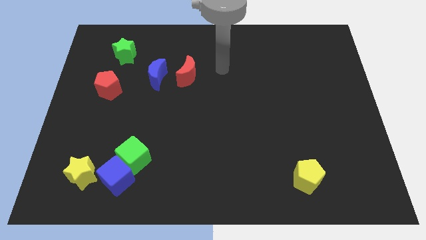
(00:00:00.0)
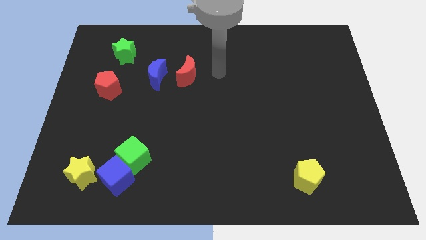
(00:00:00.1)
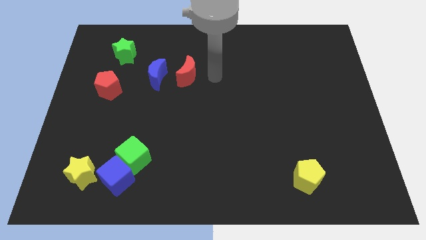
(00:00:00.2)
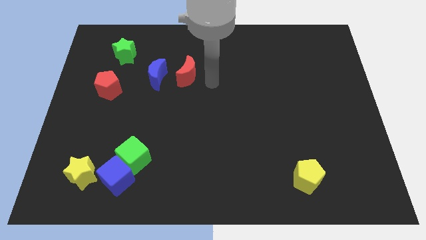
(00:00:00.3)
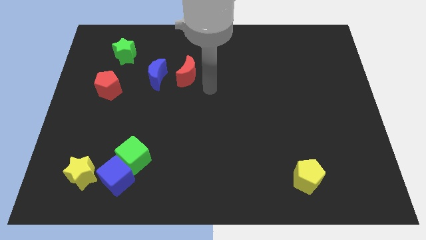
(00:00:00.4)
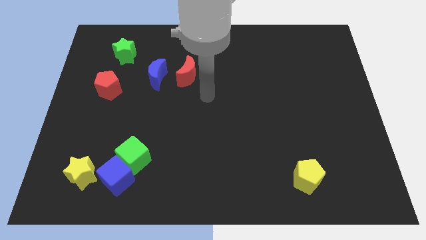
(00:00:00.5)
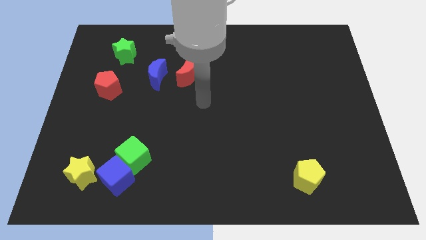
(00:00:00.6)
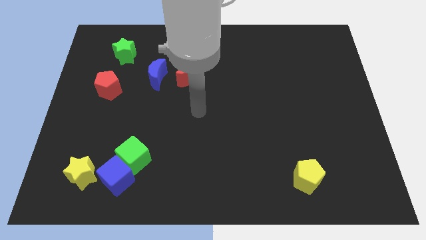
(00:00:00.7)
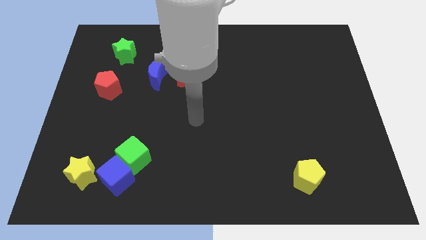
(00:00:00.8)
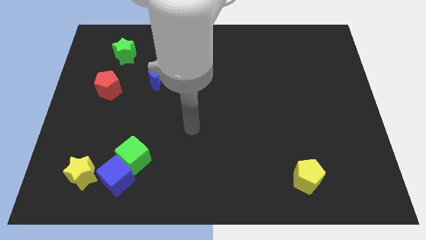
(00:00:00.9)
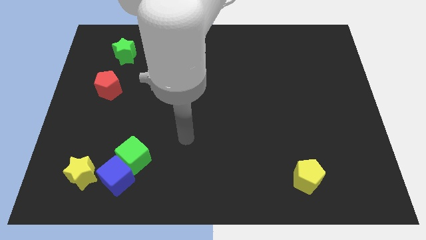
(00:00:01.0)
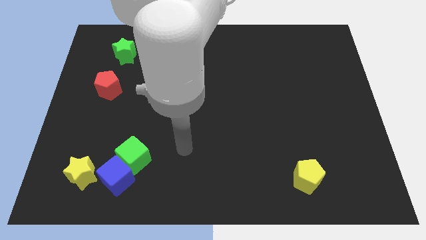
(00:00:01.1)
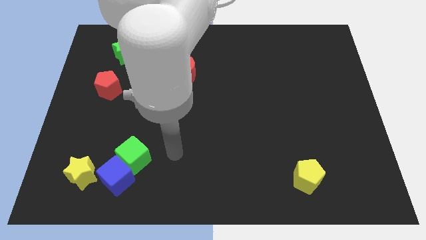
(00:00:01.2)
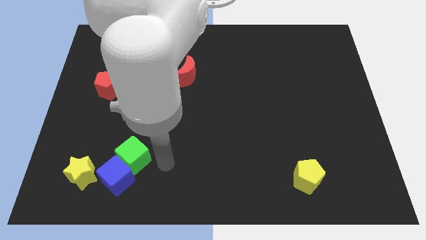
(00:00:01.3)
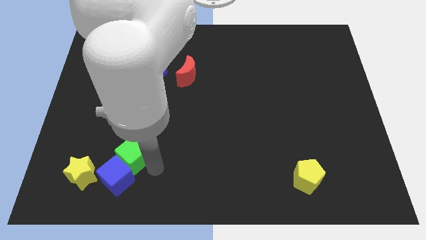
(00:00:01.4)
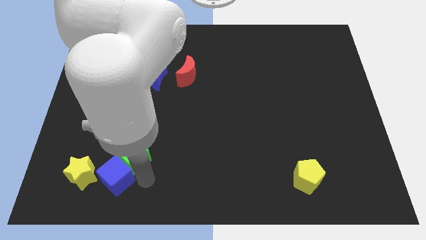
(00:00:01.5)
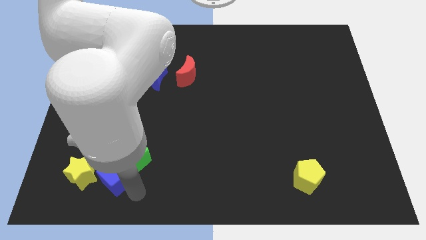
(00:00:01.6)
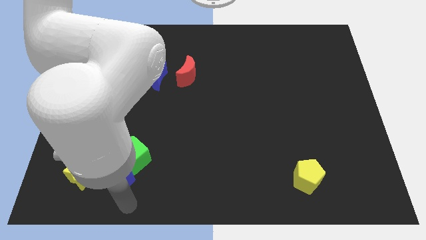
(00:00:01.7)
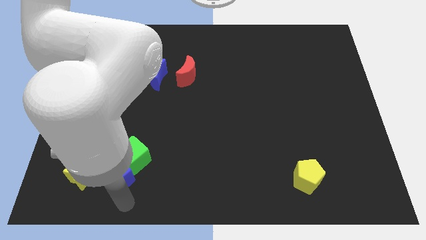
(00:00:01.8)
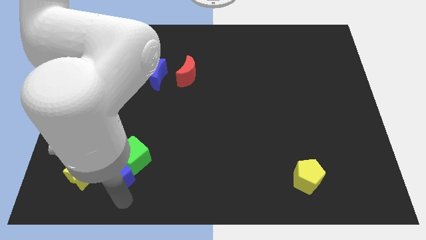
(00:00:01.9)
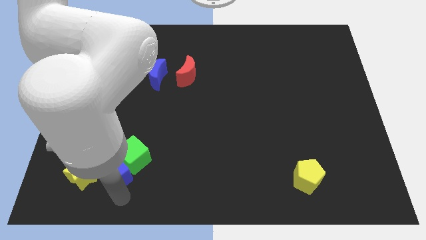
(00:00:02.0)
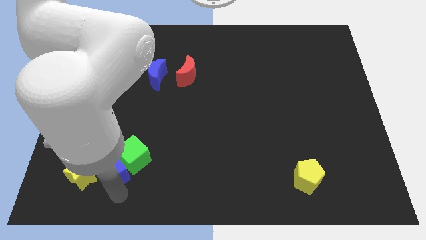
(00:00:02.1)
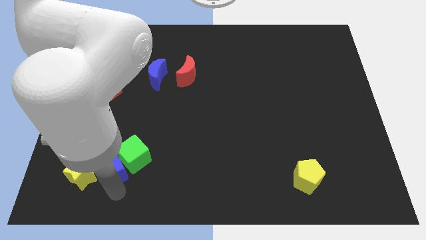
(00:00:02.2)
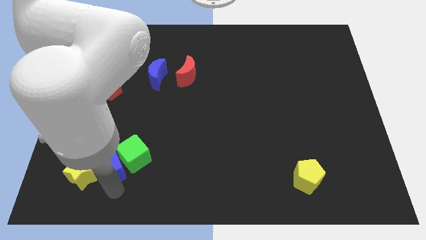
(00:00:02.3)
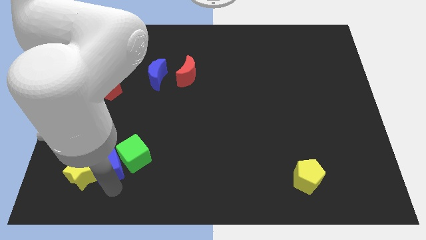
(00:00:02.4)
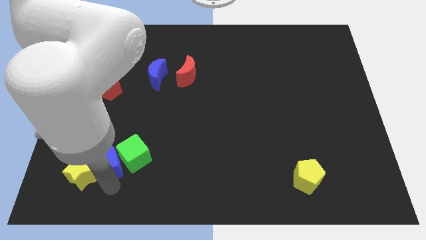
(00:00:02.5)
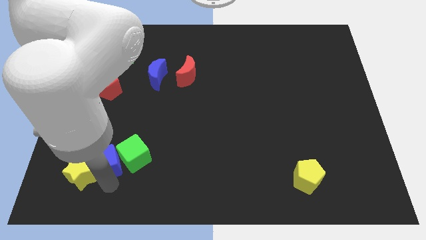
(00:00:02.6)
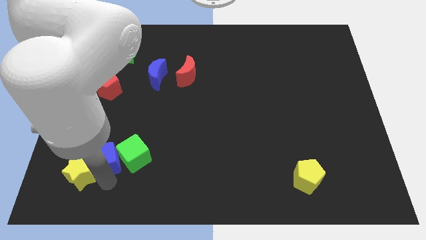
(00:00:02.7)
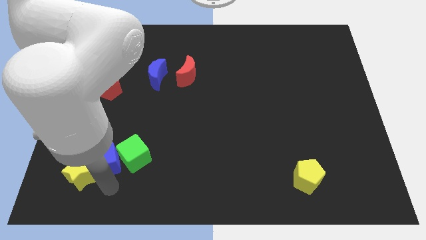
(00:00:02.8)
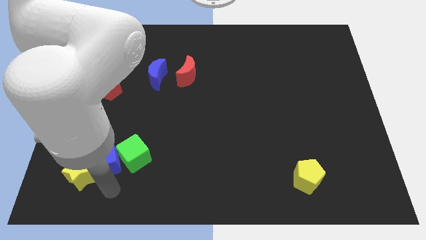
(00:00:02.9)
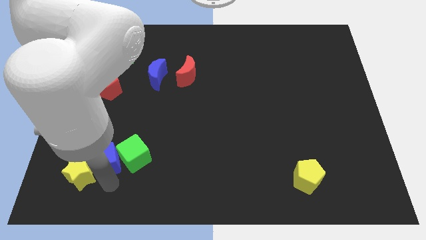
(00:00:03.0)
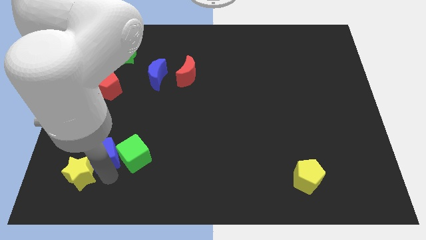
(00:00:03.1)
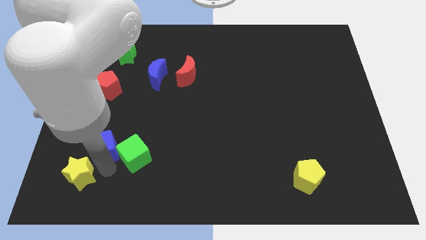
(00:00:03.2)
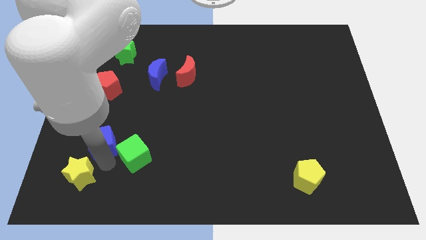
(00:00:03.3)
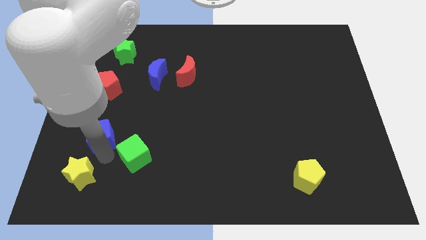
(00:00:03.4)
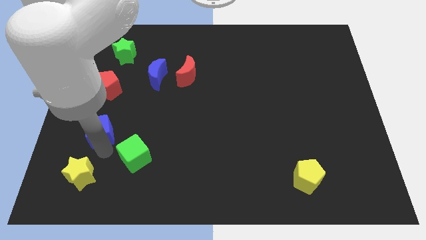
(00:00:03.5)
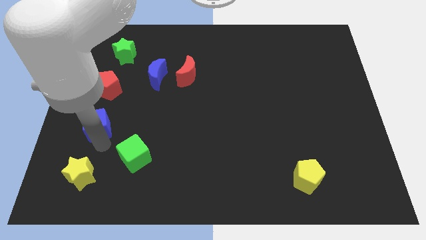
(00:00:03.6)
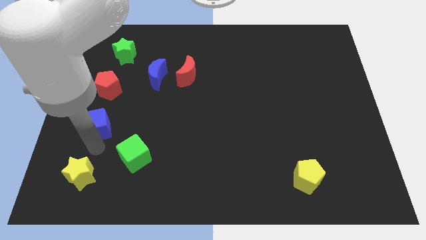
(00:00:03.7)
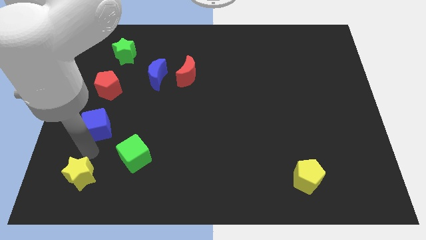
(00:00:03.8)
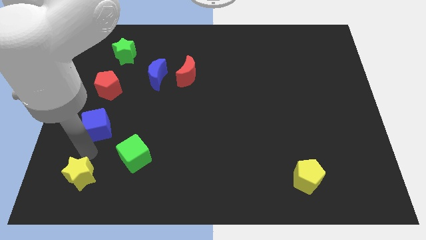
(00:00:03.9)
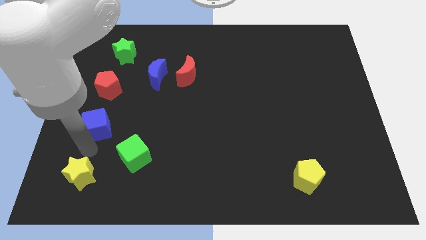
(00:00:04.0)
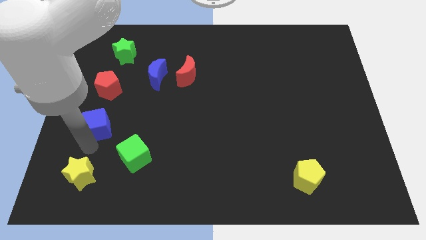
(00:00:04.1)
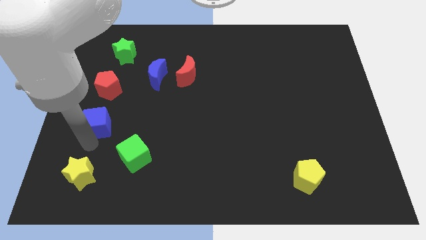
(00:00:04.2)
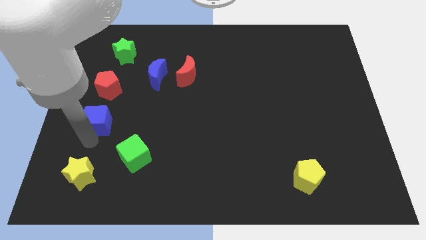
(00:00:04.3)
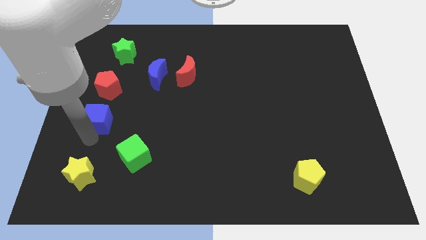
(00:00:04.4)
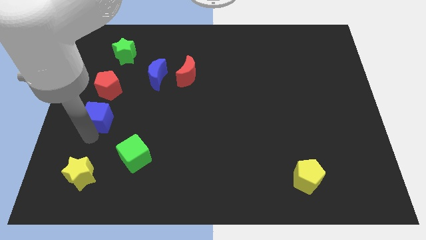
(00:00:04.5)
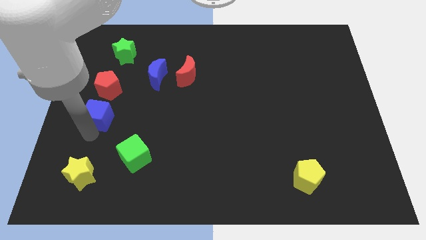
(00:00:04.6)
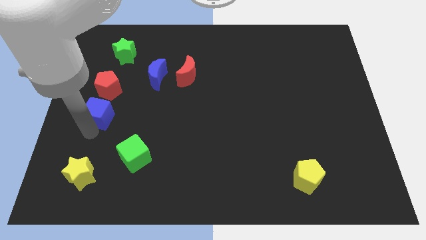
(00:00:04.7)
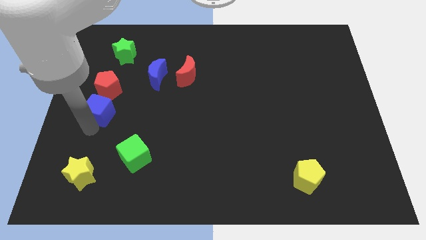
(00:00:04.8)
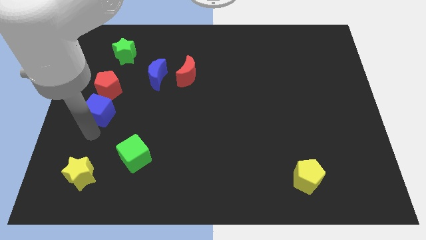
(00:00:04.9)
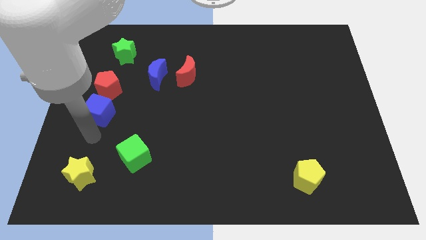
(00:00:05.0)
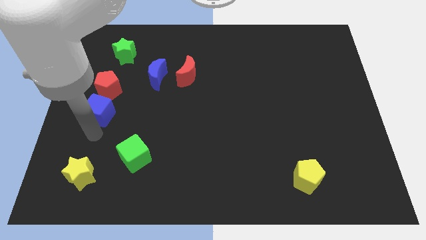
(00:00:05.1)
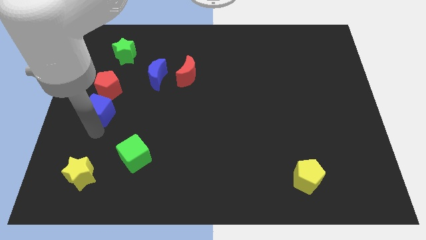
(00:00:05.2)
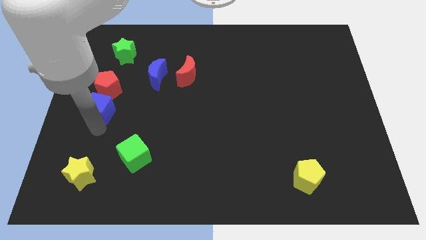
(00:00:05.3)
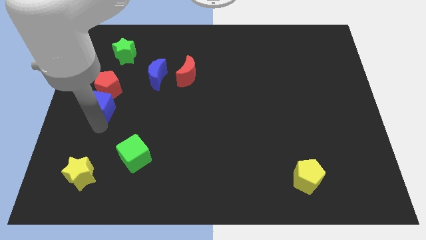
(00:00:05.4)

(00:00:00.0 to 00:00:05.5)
slide the blue cube next to the red pentagon

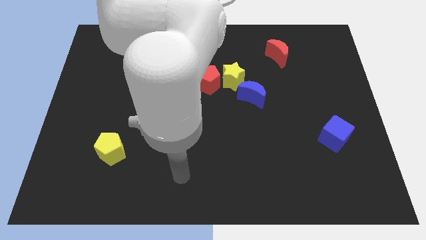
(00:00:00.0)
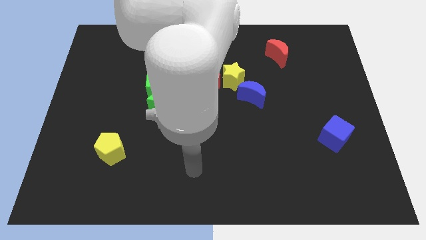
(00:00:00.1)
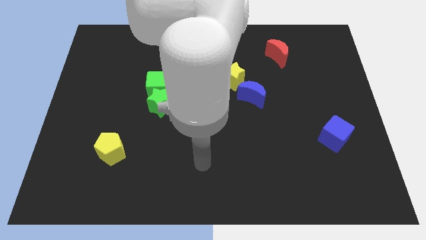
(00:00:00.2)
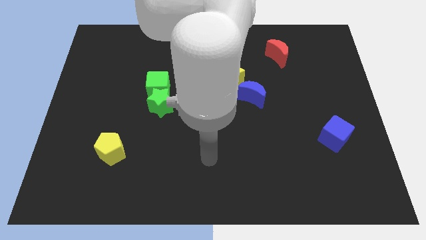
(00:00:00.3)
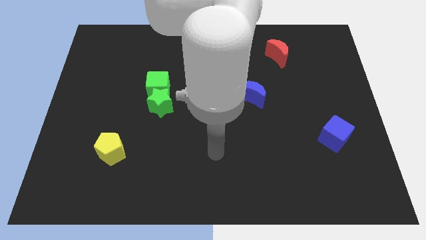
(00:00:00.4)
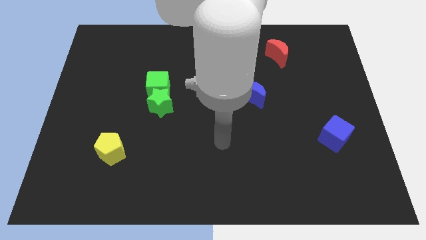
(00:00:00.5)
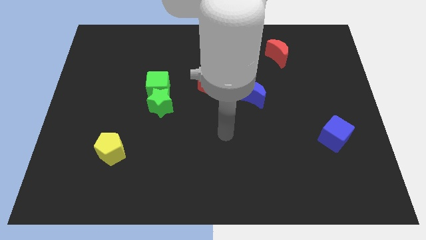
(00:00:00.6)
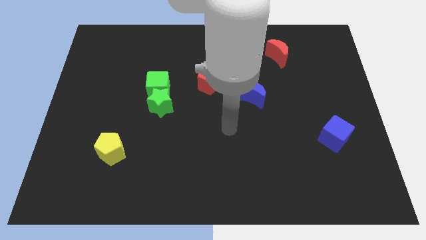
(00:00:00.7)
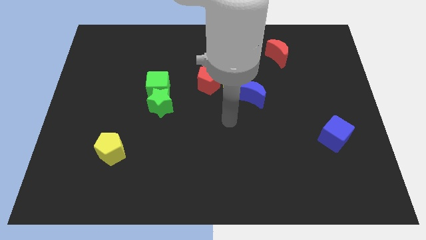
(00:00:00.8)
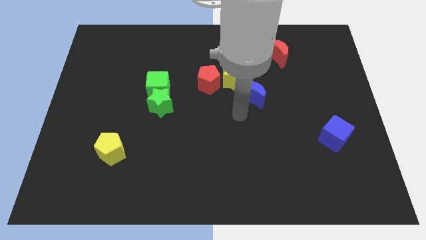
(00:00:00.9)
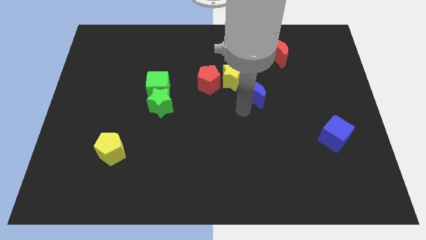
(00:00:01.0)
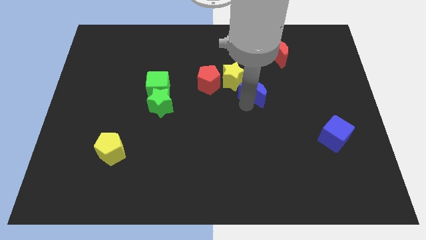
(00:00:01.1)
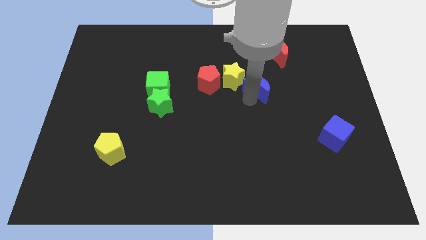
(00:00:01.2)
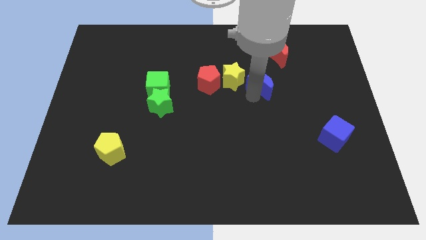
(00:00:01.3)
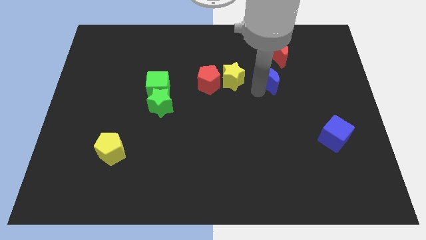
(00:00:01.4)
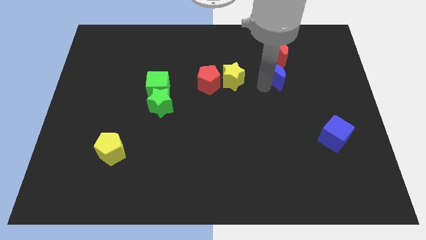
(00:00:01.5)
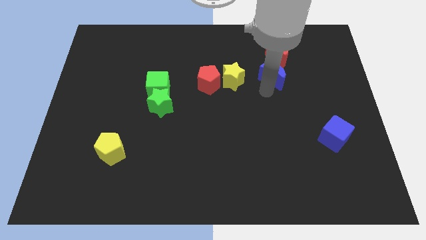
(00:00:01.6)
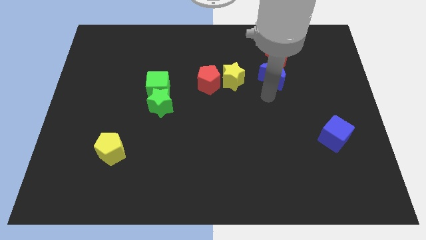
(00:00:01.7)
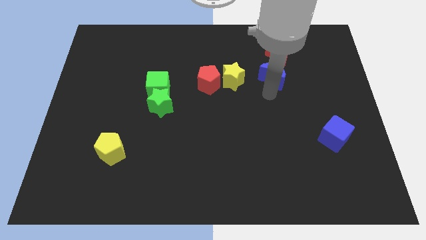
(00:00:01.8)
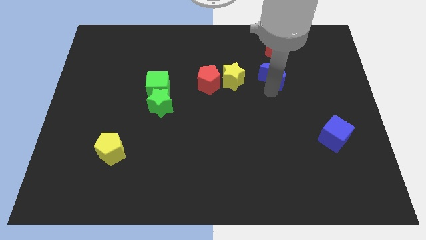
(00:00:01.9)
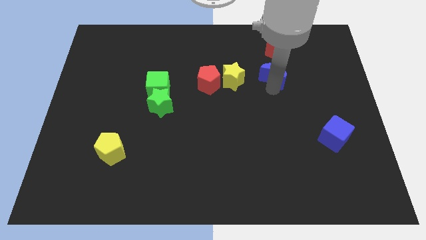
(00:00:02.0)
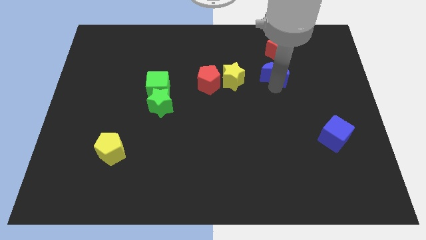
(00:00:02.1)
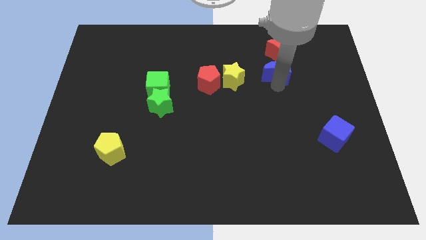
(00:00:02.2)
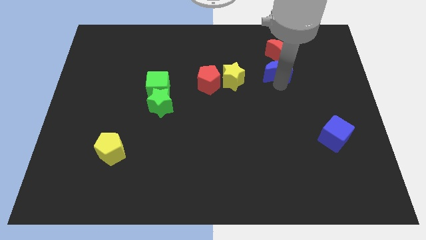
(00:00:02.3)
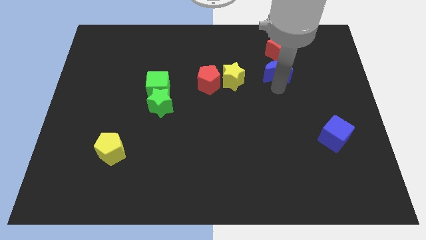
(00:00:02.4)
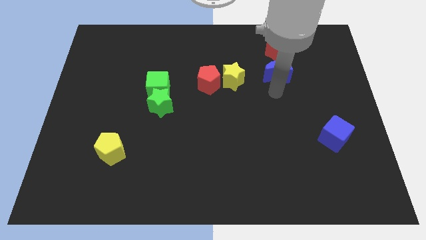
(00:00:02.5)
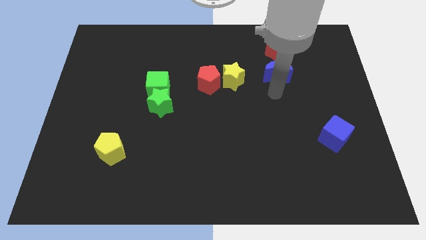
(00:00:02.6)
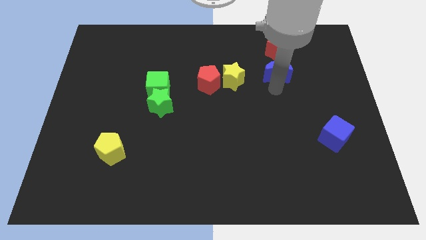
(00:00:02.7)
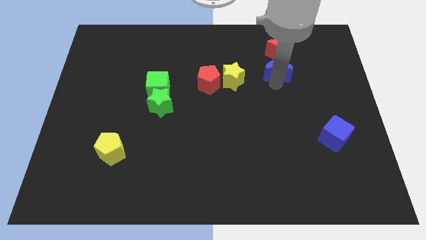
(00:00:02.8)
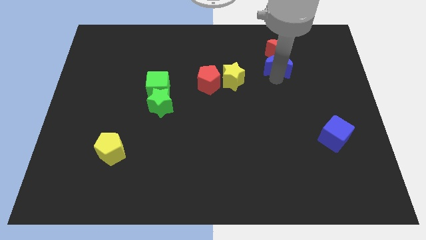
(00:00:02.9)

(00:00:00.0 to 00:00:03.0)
push the blue moon close to the red moon
